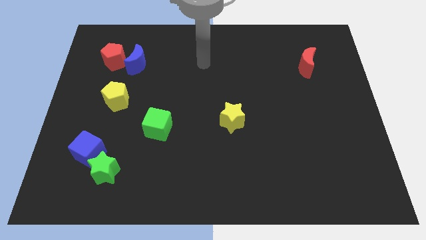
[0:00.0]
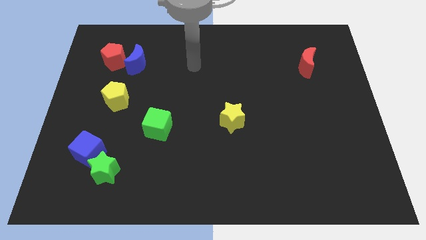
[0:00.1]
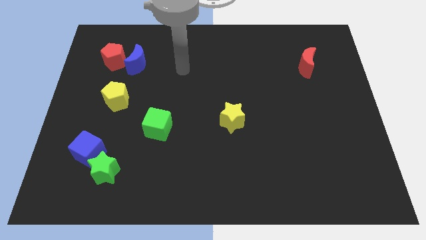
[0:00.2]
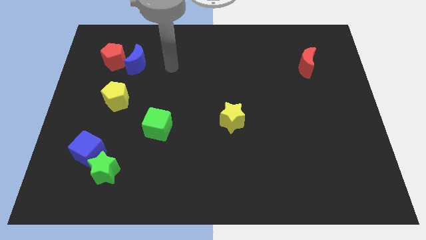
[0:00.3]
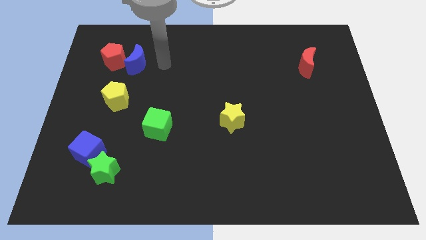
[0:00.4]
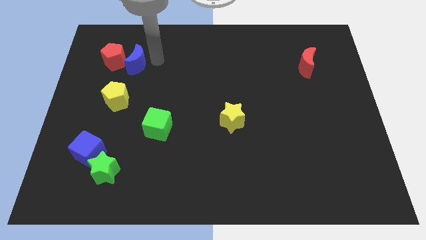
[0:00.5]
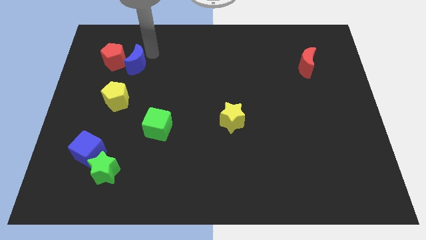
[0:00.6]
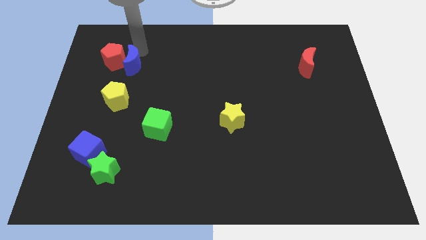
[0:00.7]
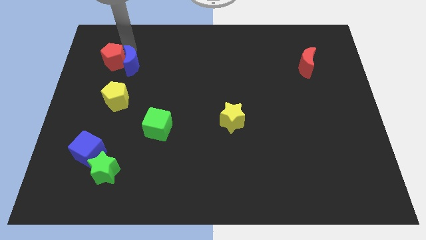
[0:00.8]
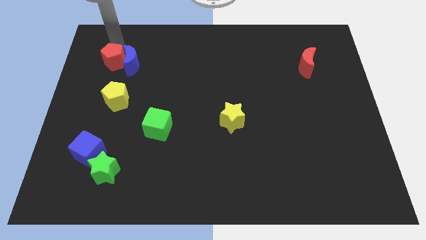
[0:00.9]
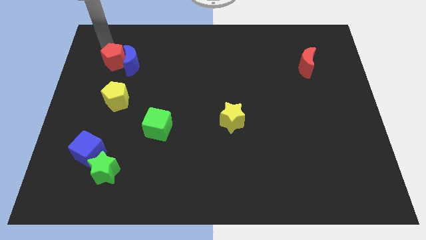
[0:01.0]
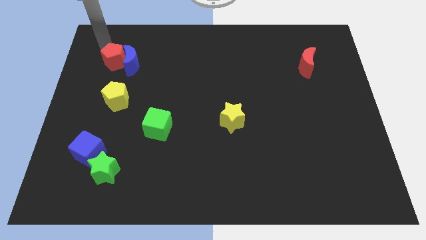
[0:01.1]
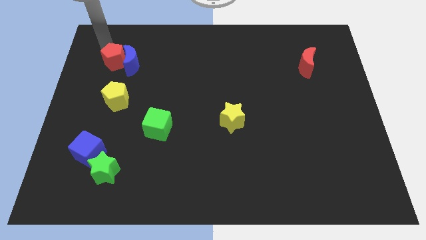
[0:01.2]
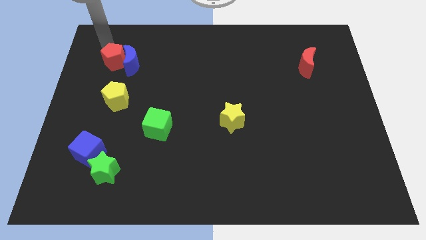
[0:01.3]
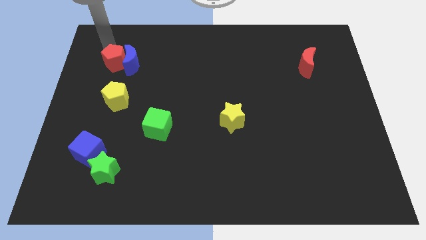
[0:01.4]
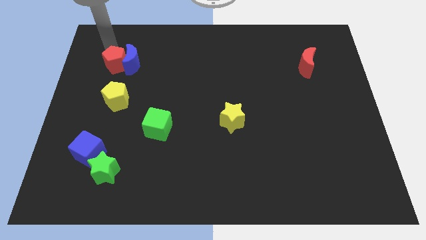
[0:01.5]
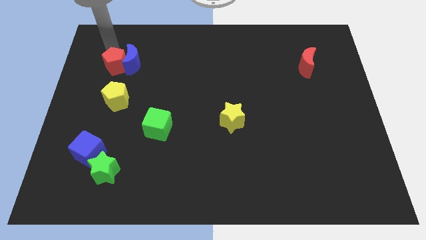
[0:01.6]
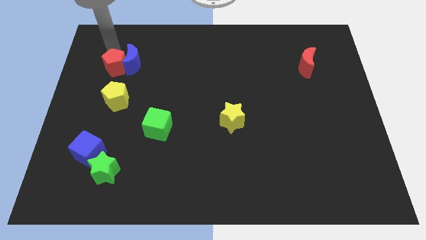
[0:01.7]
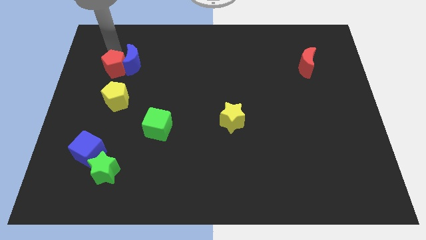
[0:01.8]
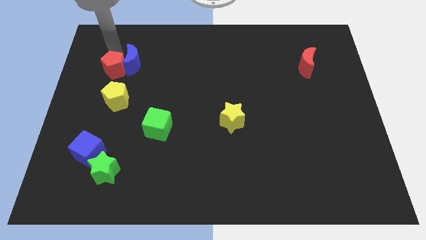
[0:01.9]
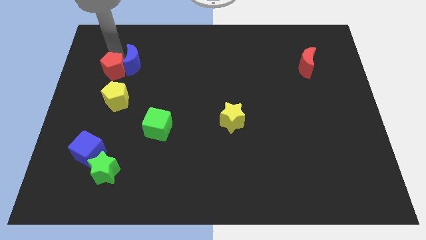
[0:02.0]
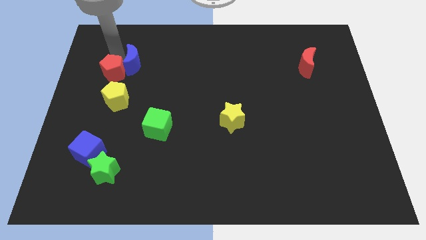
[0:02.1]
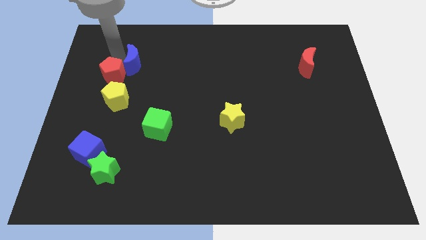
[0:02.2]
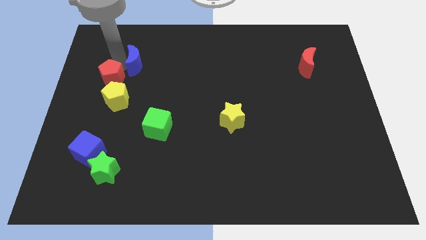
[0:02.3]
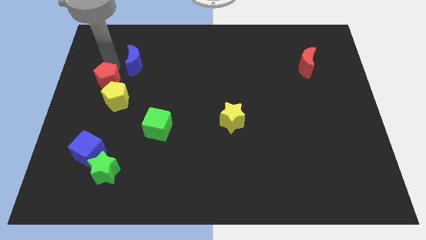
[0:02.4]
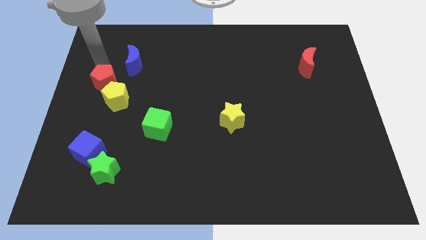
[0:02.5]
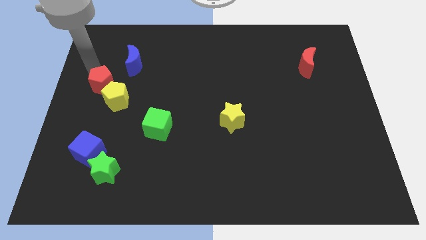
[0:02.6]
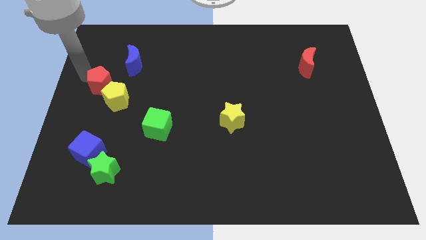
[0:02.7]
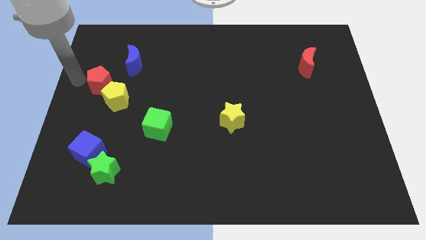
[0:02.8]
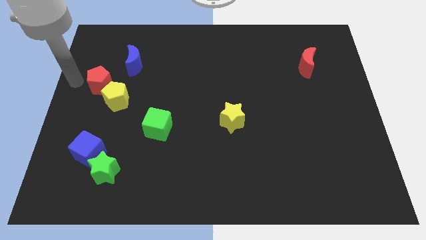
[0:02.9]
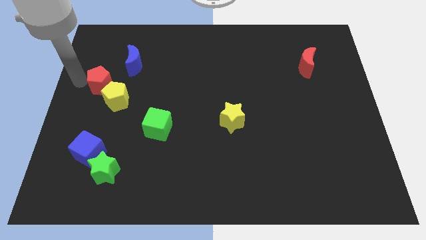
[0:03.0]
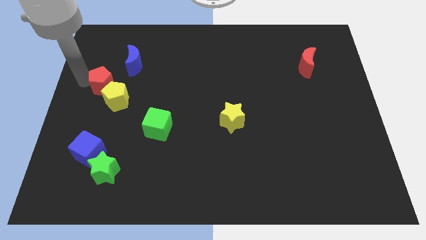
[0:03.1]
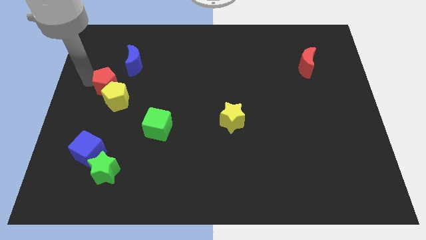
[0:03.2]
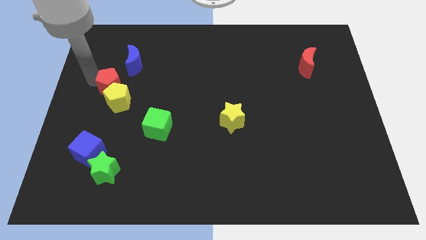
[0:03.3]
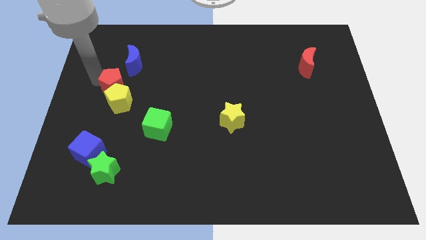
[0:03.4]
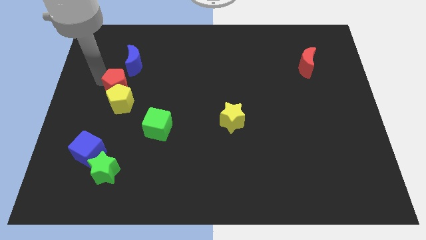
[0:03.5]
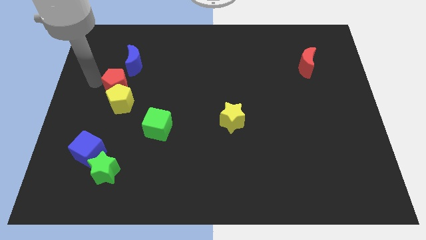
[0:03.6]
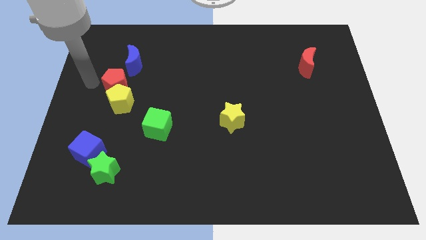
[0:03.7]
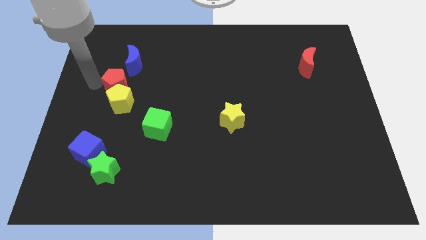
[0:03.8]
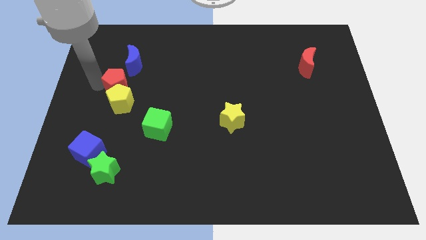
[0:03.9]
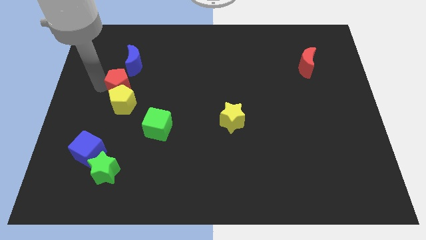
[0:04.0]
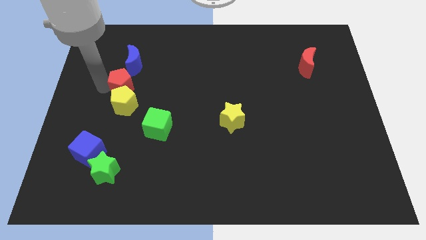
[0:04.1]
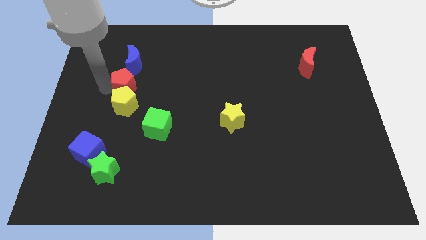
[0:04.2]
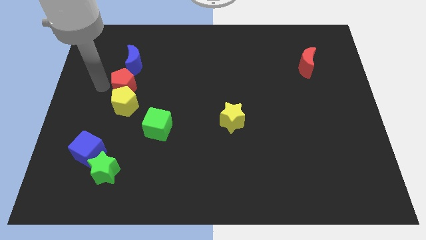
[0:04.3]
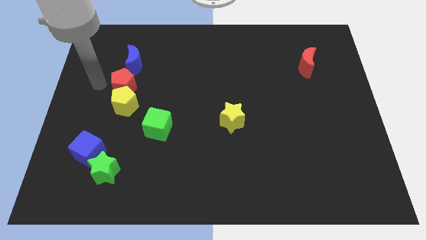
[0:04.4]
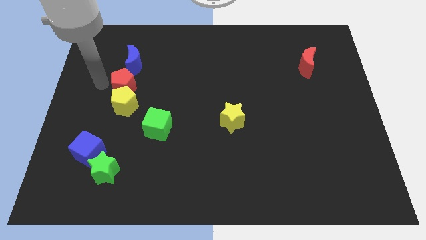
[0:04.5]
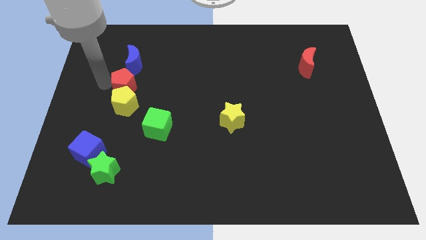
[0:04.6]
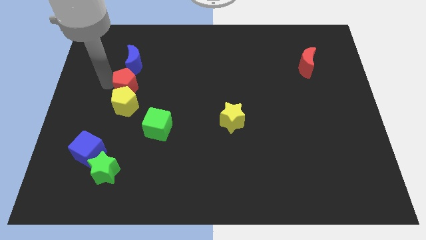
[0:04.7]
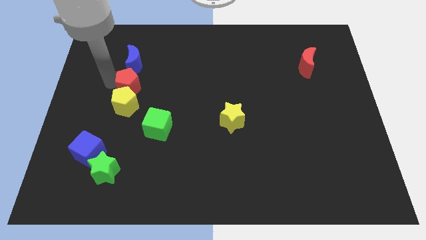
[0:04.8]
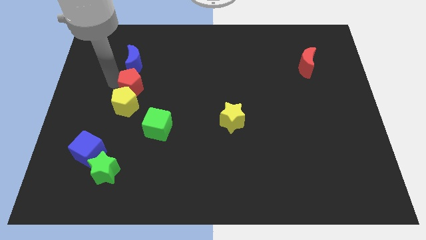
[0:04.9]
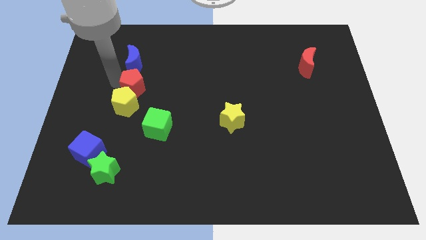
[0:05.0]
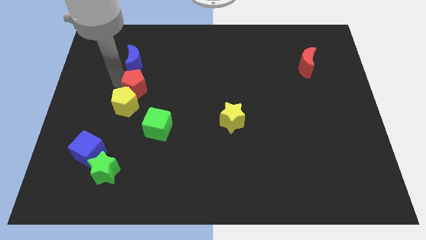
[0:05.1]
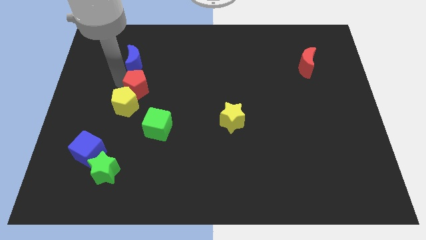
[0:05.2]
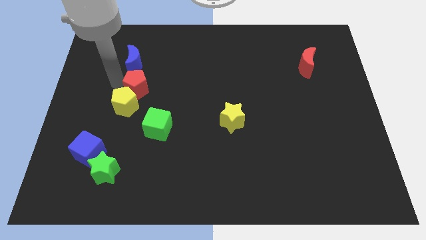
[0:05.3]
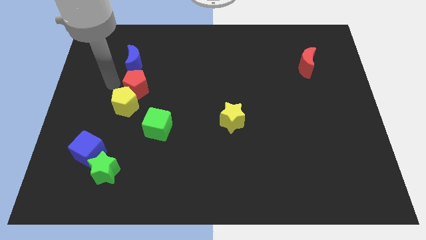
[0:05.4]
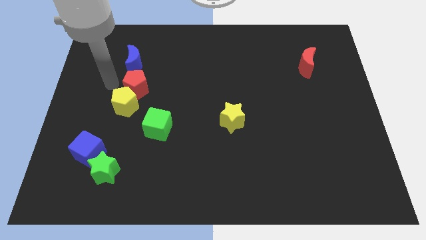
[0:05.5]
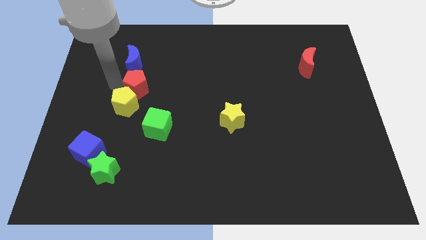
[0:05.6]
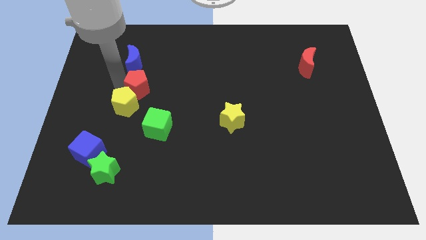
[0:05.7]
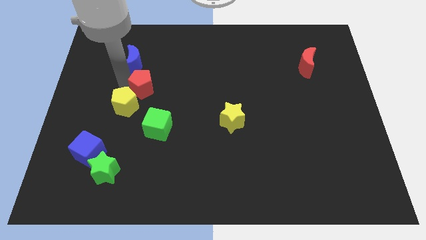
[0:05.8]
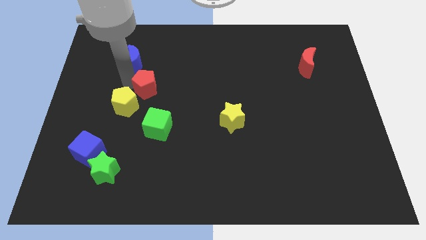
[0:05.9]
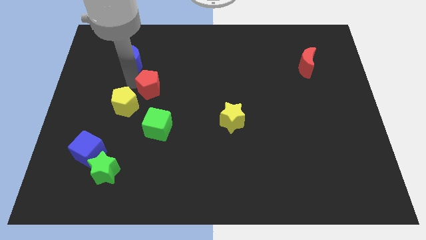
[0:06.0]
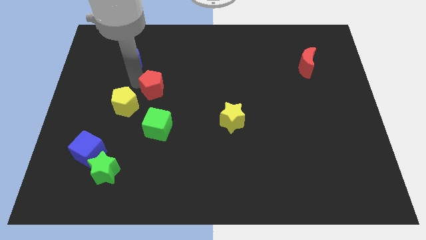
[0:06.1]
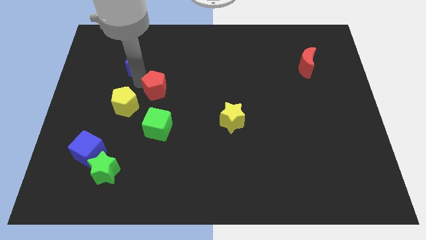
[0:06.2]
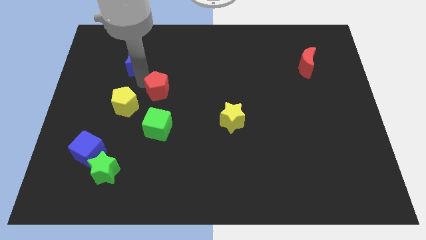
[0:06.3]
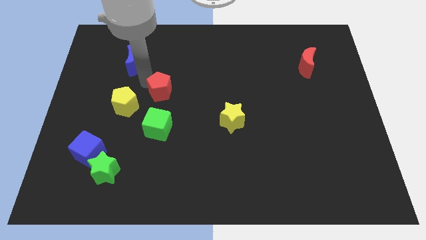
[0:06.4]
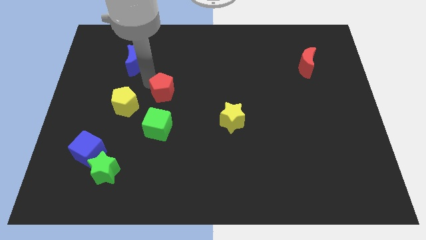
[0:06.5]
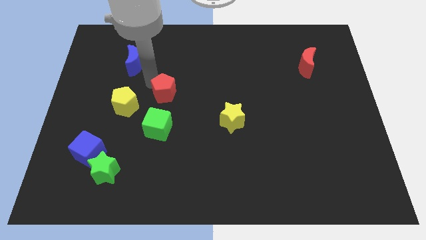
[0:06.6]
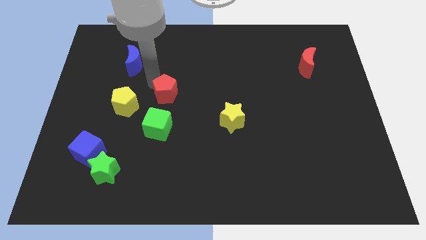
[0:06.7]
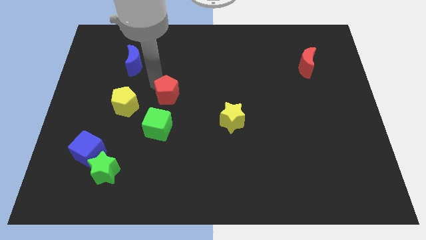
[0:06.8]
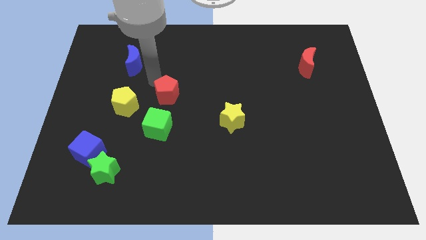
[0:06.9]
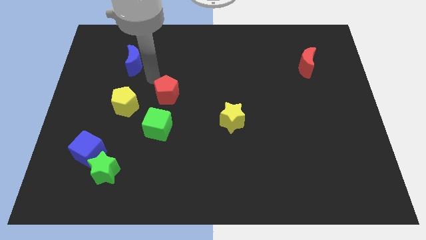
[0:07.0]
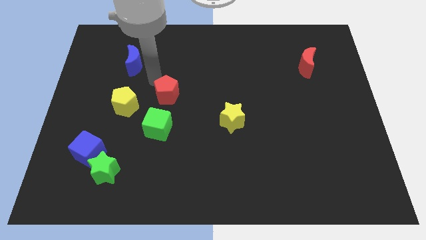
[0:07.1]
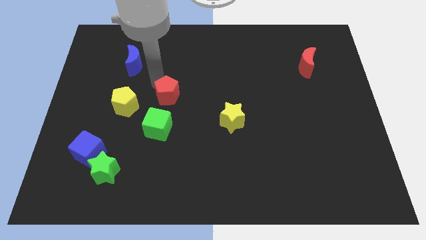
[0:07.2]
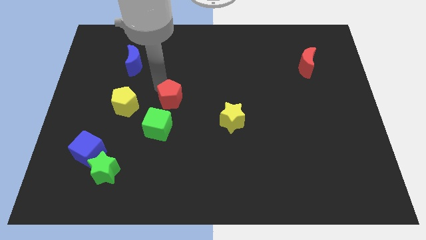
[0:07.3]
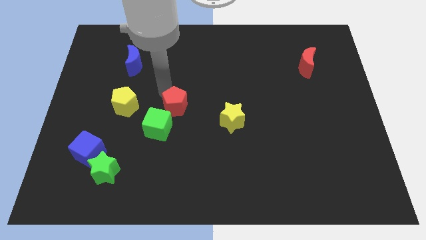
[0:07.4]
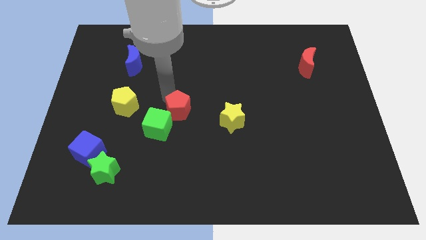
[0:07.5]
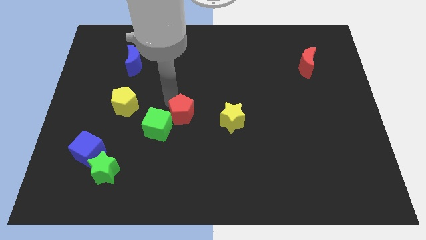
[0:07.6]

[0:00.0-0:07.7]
slide the red pentagon to the right of the green cube

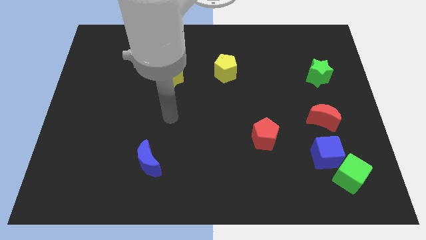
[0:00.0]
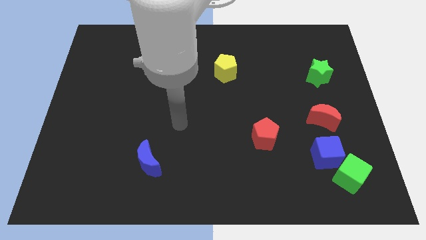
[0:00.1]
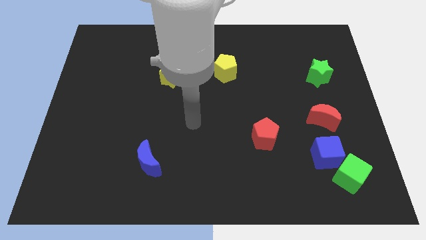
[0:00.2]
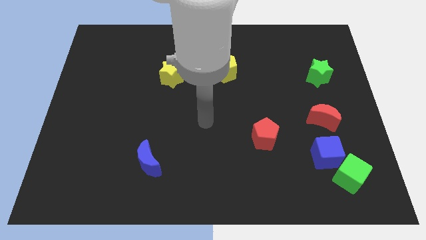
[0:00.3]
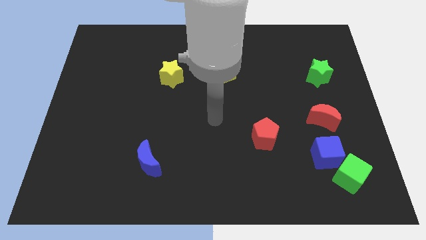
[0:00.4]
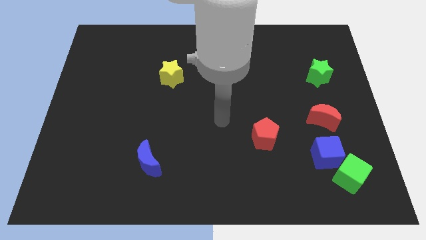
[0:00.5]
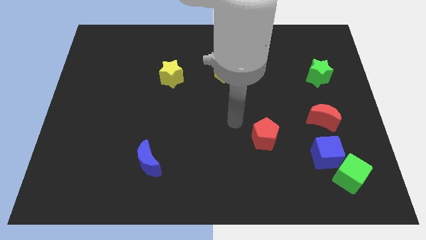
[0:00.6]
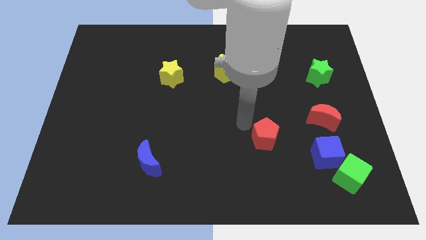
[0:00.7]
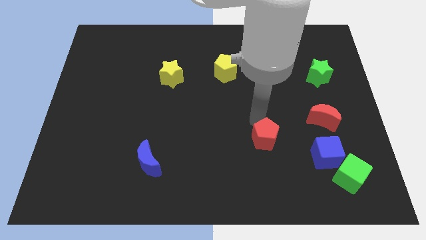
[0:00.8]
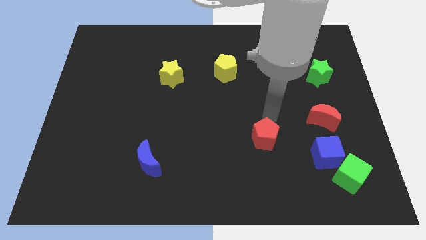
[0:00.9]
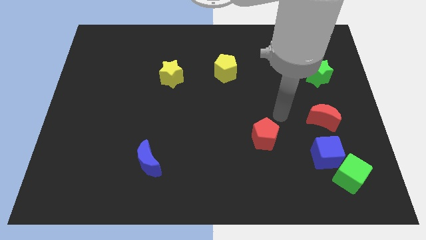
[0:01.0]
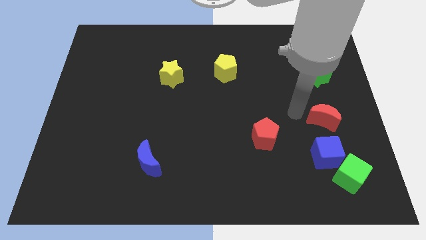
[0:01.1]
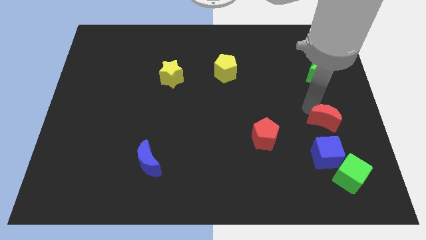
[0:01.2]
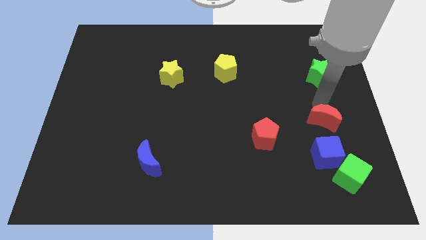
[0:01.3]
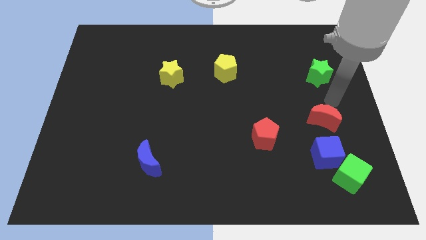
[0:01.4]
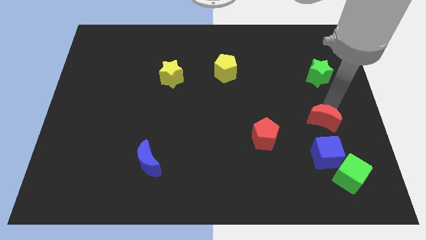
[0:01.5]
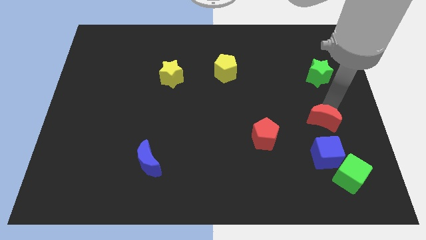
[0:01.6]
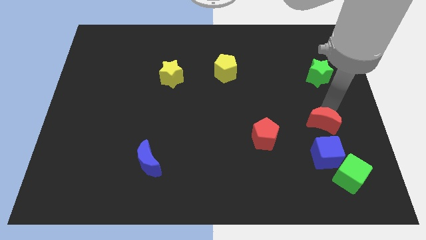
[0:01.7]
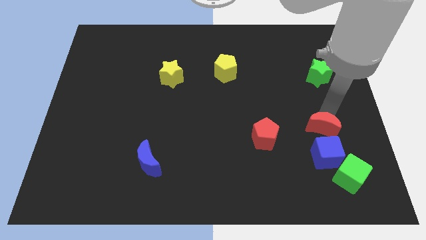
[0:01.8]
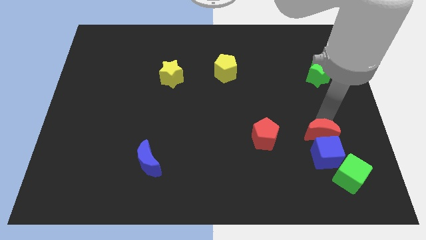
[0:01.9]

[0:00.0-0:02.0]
push the red moon diagonally up and to the left of the green cube
